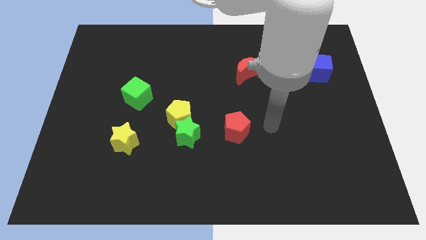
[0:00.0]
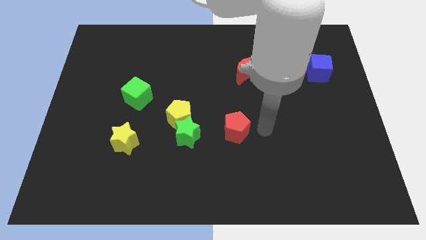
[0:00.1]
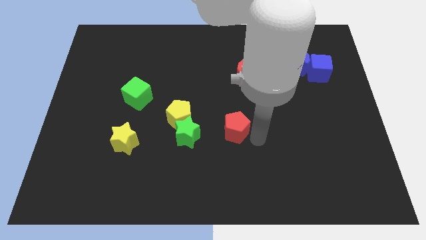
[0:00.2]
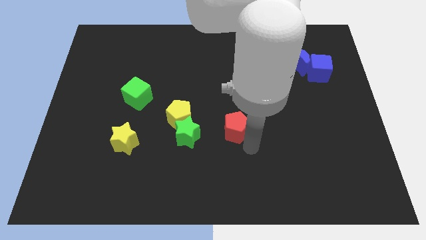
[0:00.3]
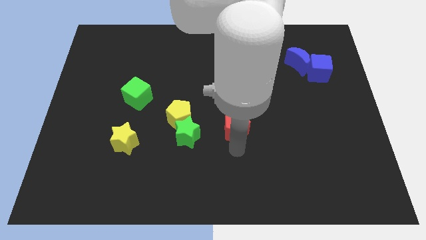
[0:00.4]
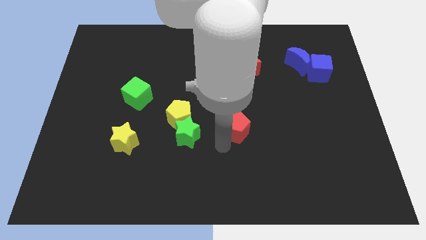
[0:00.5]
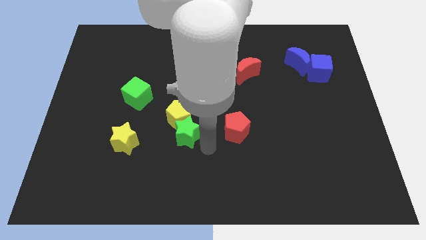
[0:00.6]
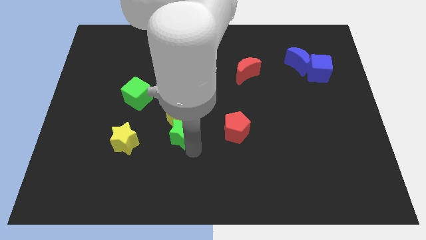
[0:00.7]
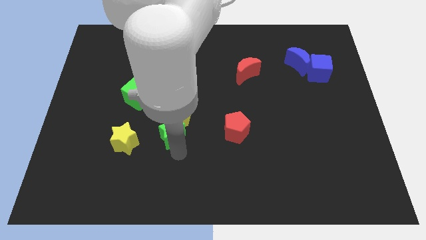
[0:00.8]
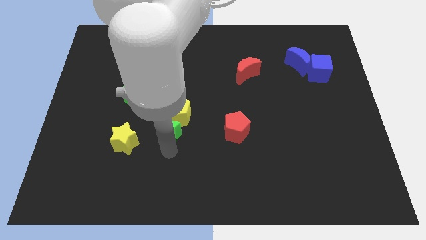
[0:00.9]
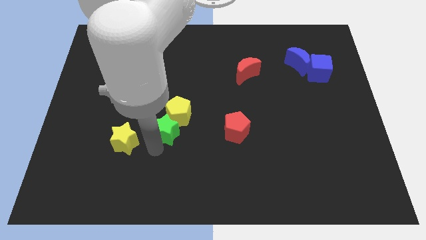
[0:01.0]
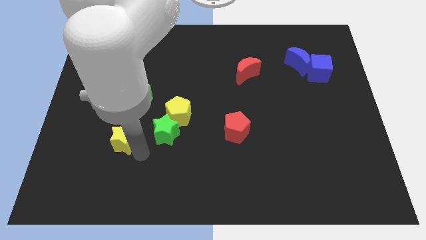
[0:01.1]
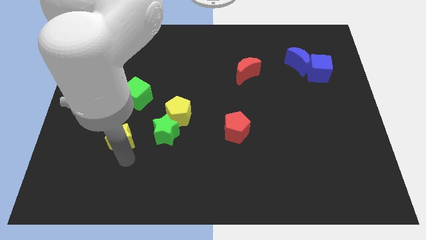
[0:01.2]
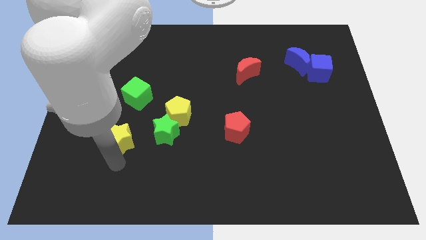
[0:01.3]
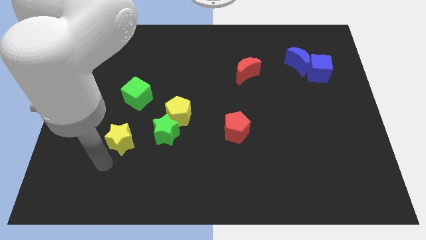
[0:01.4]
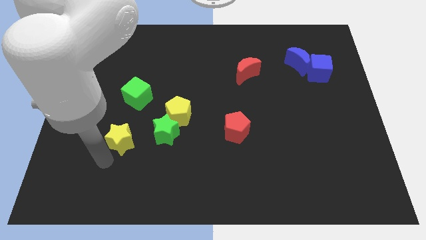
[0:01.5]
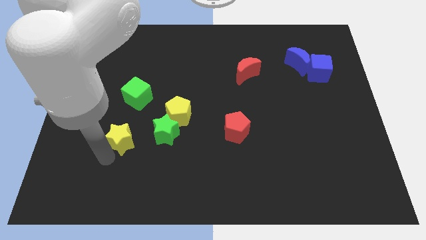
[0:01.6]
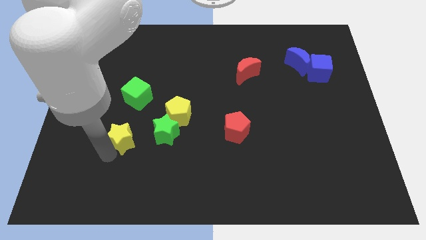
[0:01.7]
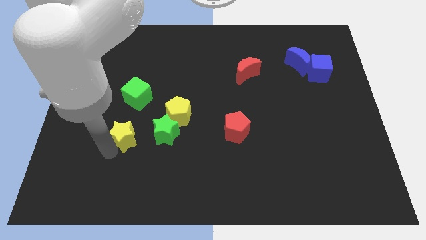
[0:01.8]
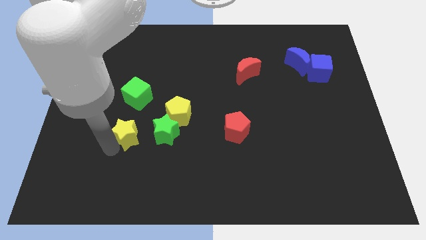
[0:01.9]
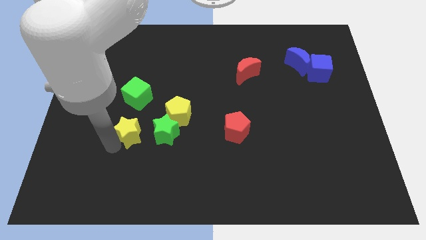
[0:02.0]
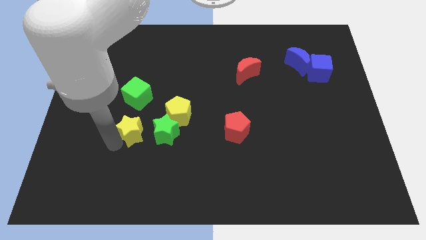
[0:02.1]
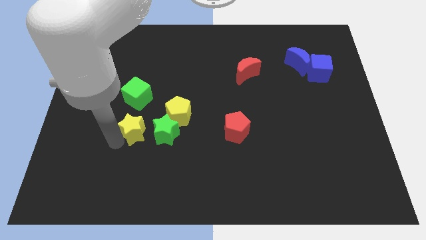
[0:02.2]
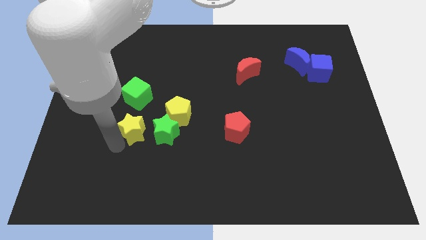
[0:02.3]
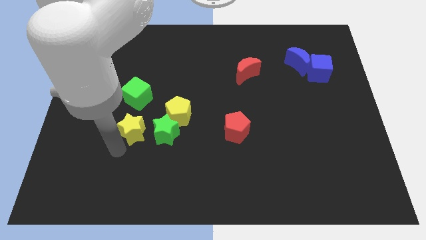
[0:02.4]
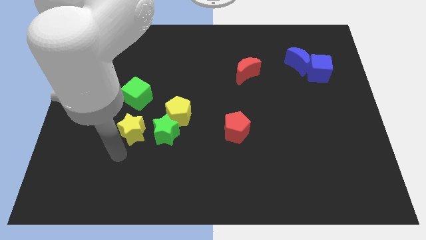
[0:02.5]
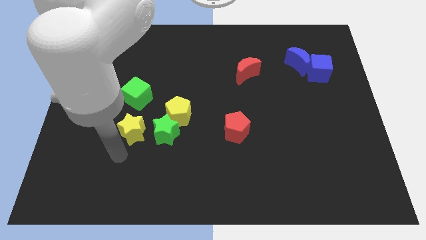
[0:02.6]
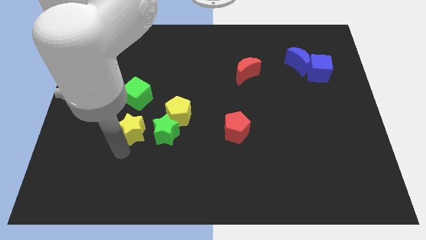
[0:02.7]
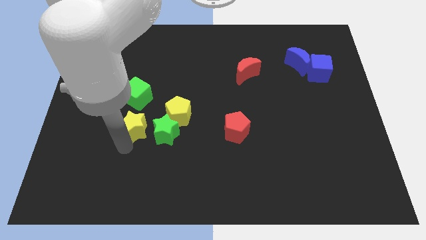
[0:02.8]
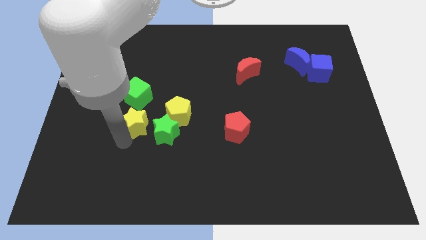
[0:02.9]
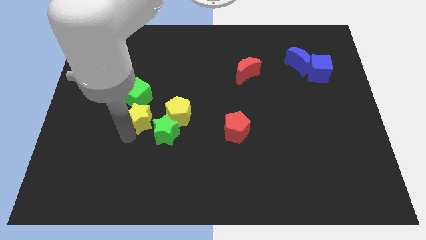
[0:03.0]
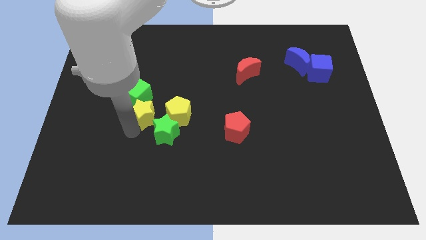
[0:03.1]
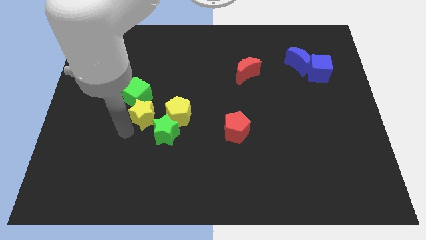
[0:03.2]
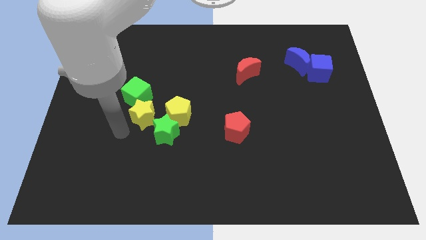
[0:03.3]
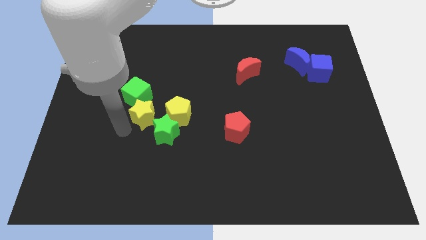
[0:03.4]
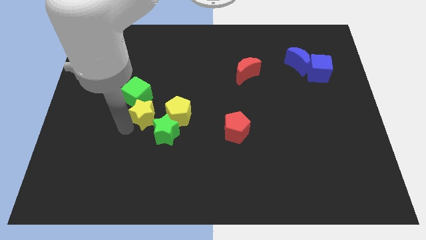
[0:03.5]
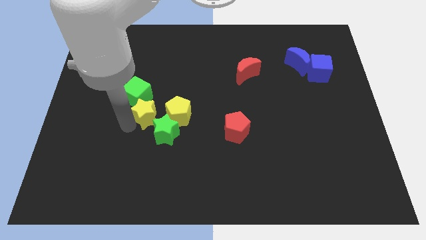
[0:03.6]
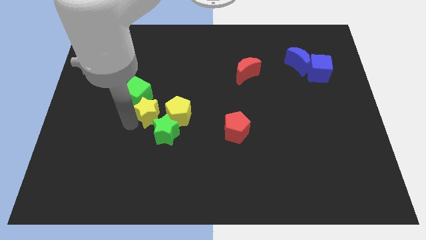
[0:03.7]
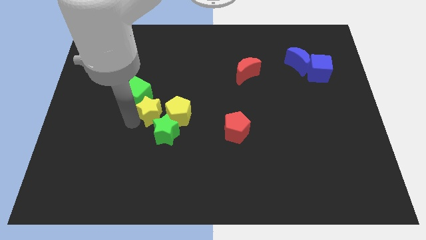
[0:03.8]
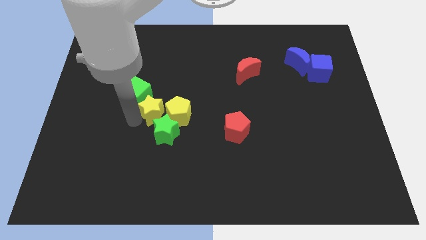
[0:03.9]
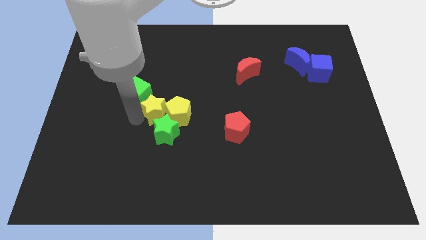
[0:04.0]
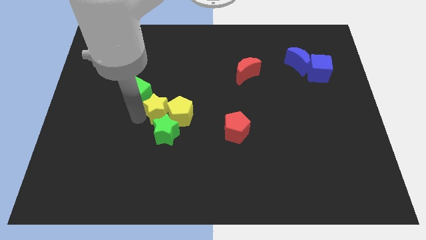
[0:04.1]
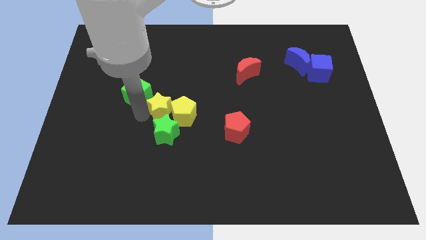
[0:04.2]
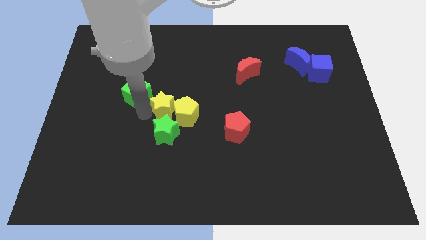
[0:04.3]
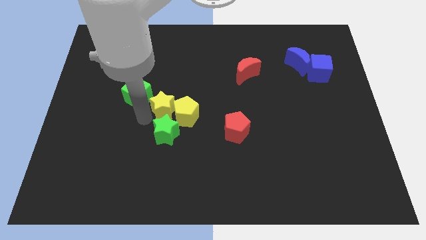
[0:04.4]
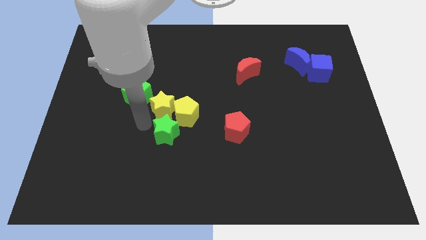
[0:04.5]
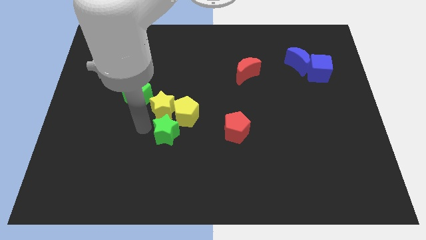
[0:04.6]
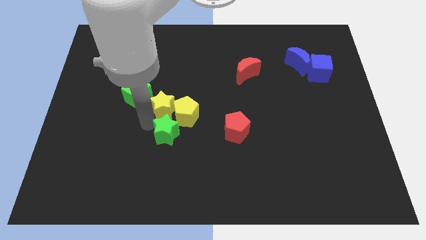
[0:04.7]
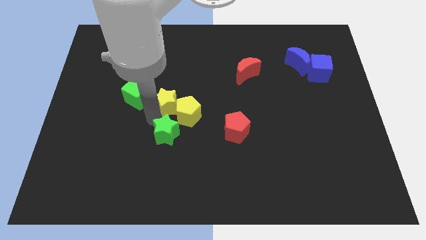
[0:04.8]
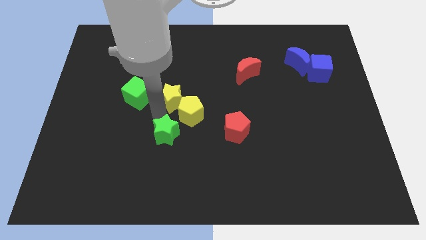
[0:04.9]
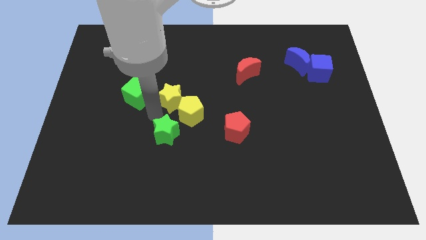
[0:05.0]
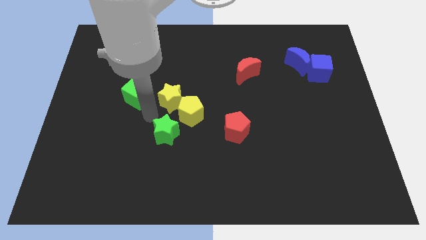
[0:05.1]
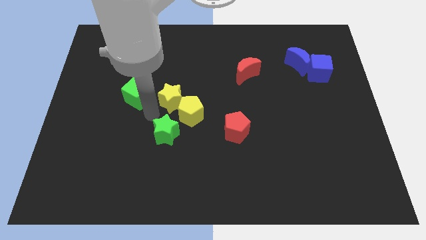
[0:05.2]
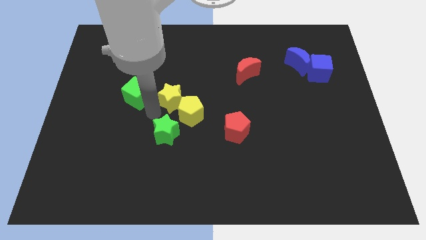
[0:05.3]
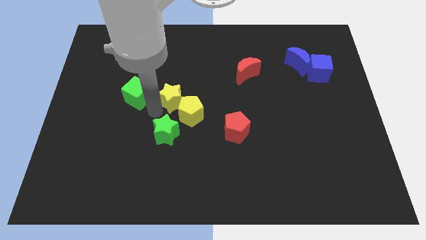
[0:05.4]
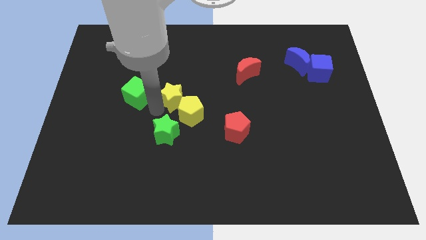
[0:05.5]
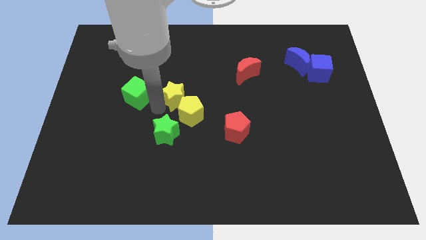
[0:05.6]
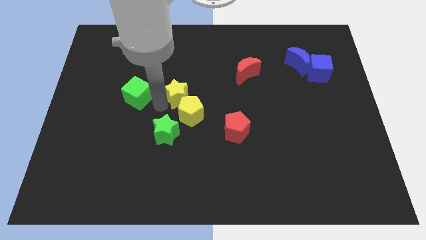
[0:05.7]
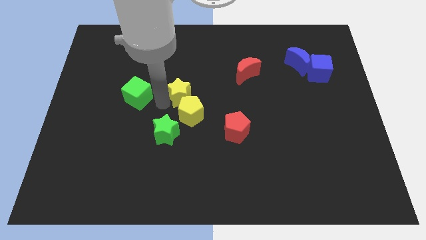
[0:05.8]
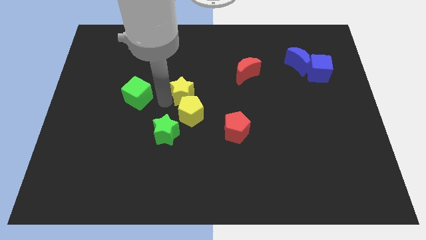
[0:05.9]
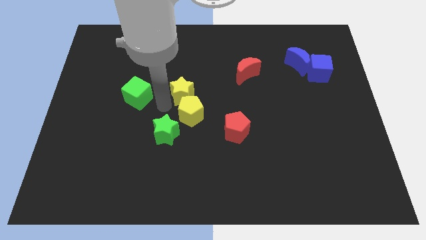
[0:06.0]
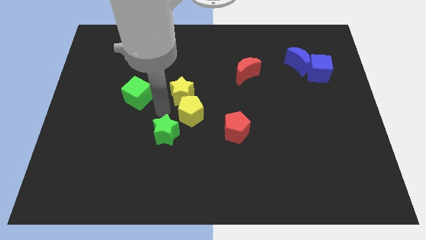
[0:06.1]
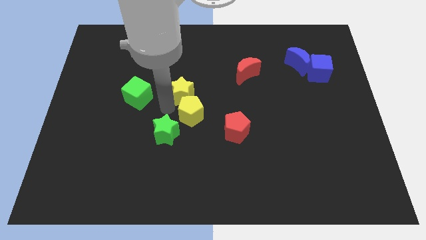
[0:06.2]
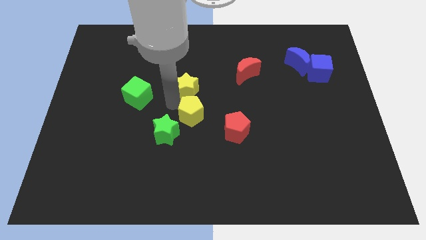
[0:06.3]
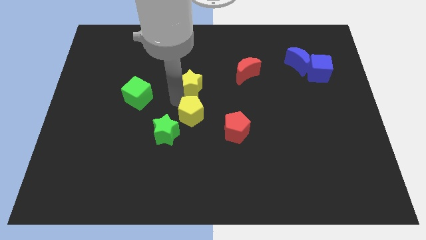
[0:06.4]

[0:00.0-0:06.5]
move the yellow star diagonally upwards and right

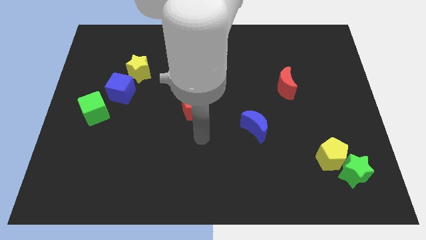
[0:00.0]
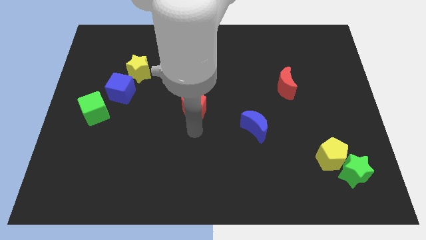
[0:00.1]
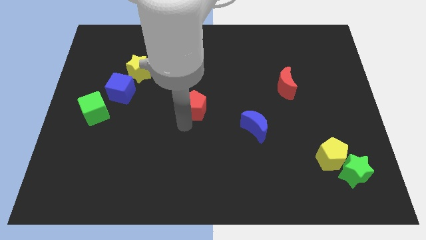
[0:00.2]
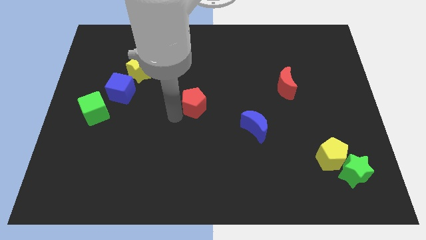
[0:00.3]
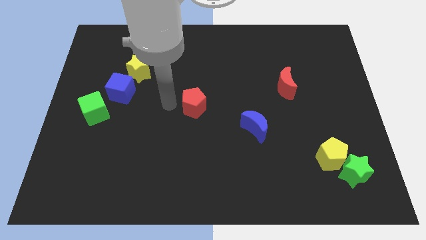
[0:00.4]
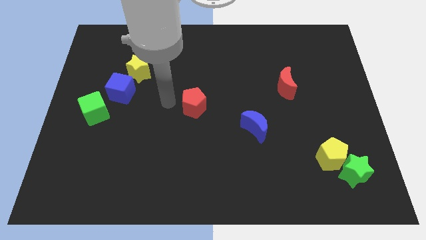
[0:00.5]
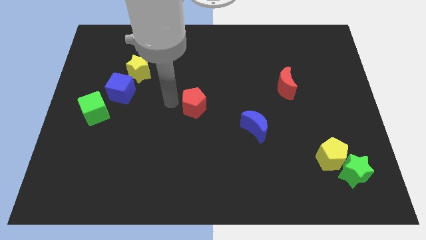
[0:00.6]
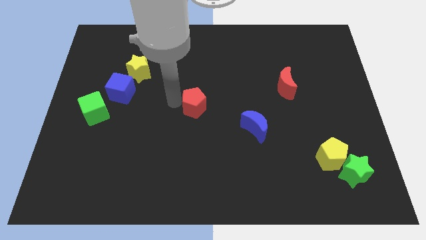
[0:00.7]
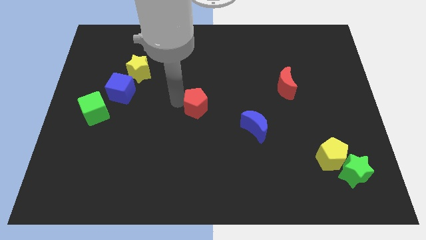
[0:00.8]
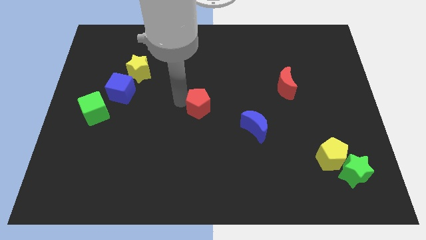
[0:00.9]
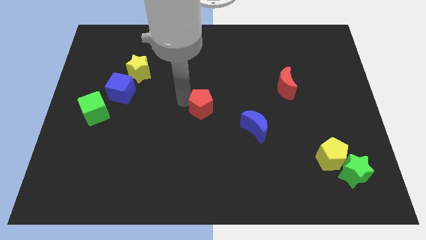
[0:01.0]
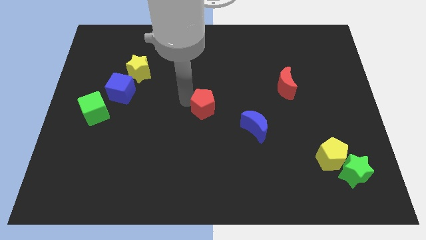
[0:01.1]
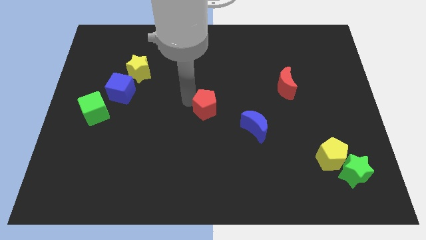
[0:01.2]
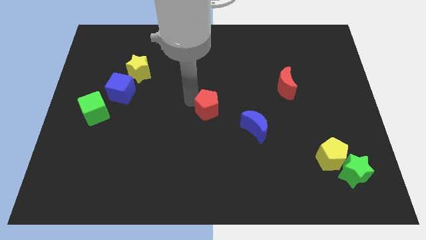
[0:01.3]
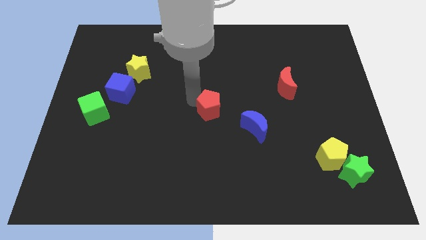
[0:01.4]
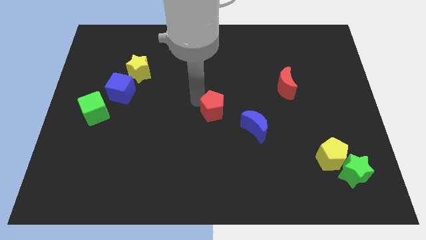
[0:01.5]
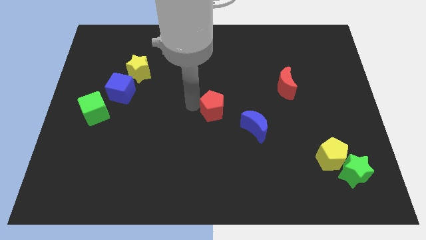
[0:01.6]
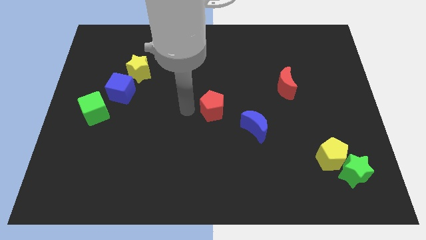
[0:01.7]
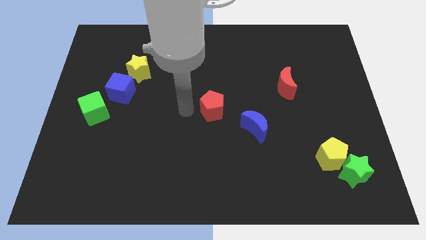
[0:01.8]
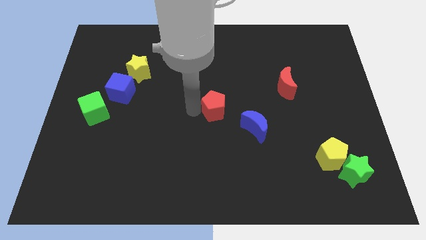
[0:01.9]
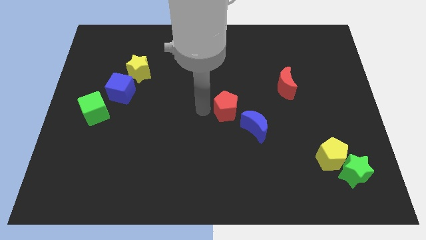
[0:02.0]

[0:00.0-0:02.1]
push the red pentagon slightly to the right
